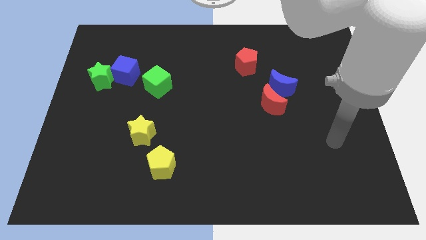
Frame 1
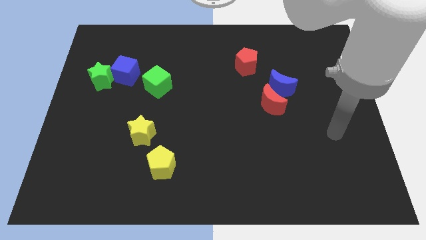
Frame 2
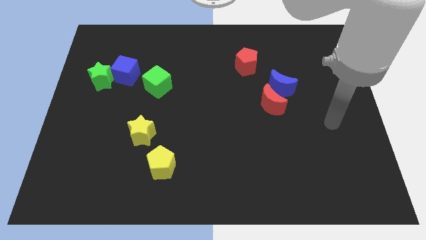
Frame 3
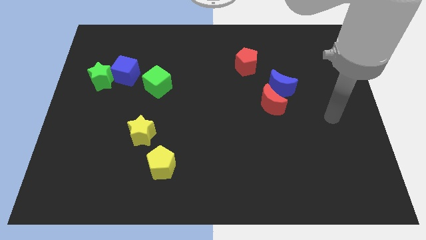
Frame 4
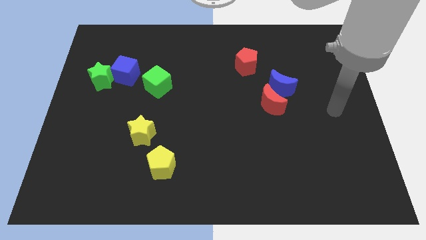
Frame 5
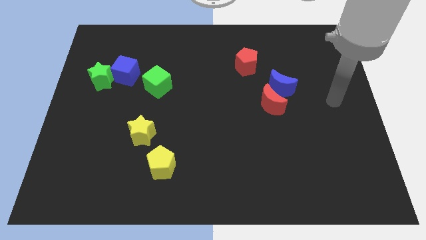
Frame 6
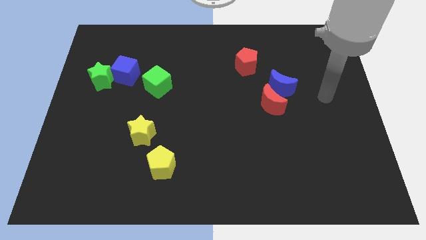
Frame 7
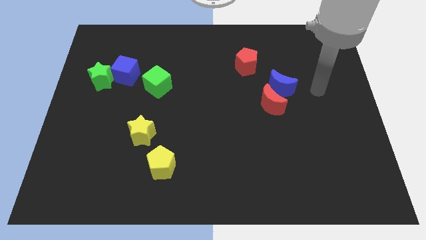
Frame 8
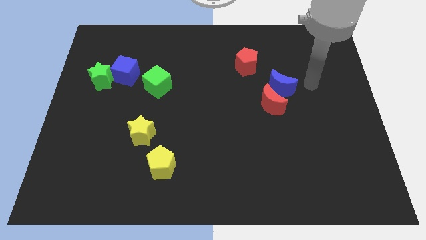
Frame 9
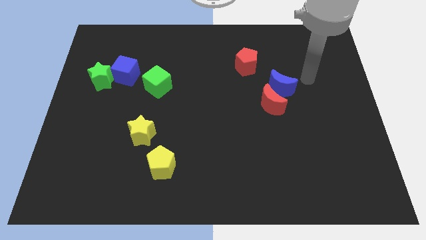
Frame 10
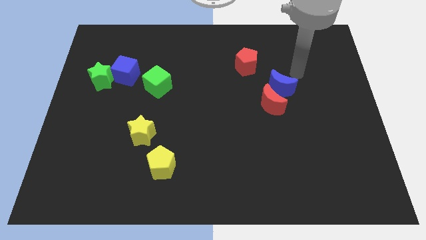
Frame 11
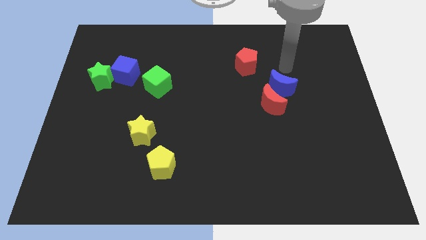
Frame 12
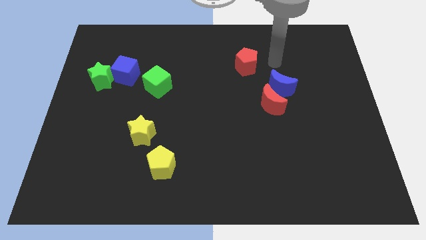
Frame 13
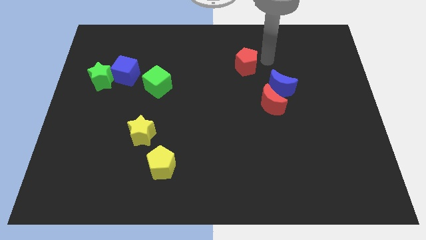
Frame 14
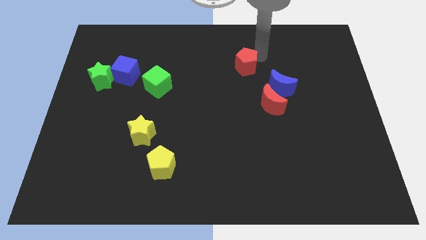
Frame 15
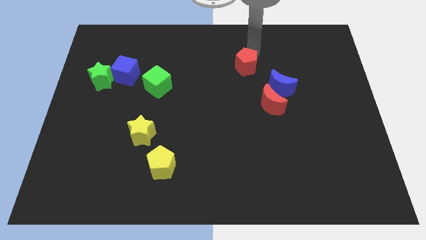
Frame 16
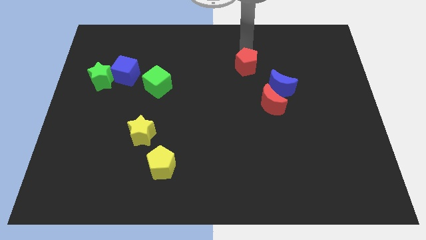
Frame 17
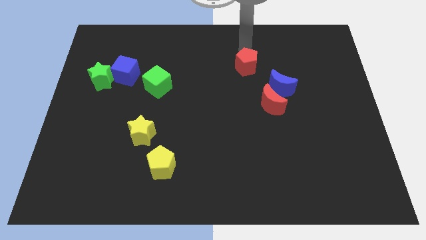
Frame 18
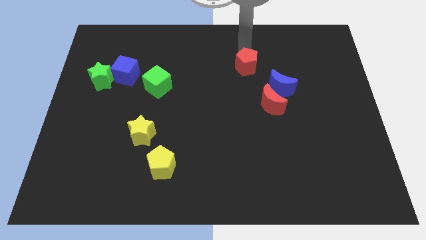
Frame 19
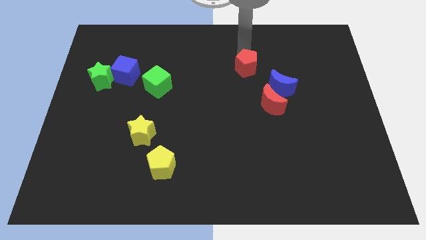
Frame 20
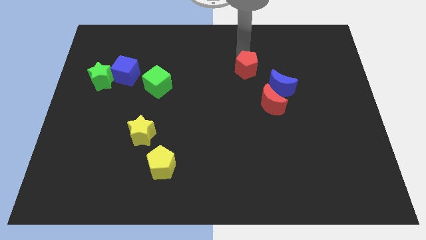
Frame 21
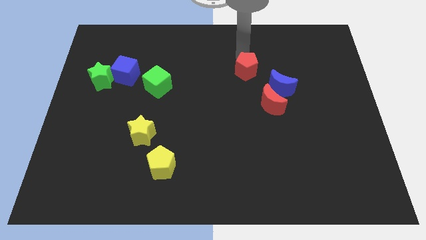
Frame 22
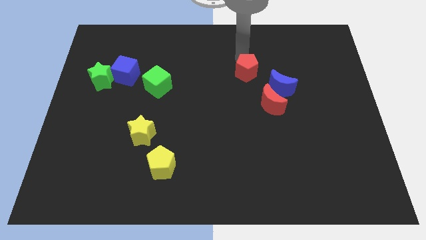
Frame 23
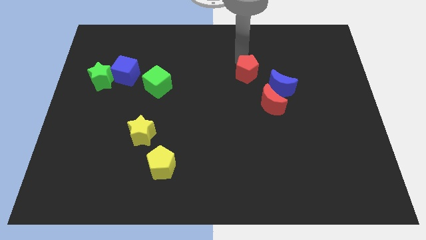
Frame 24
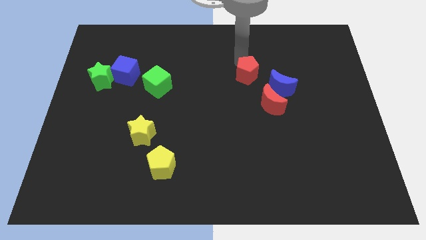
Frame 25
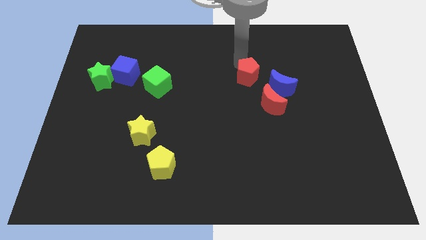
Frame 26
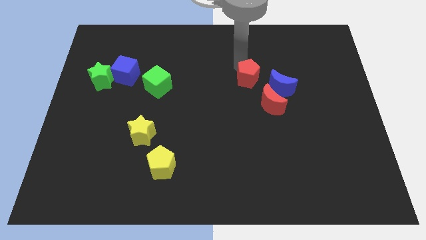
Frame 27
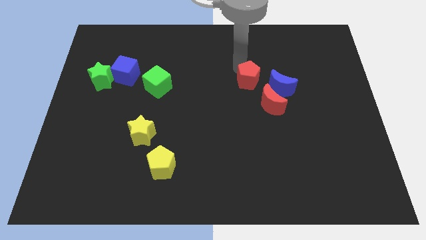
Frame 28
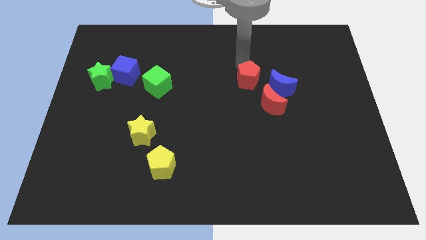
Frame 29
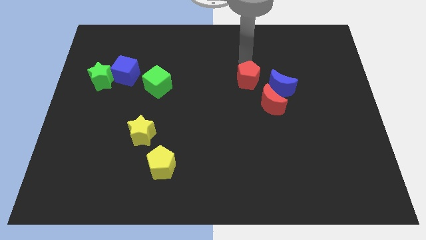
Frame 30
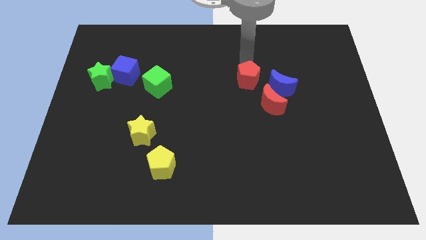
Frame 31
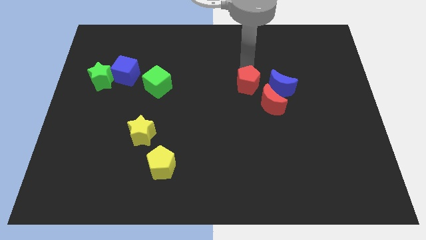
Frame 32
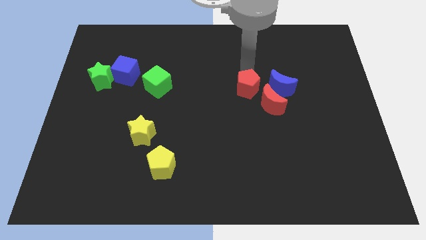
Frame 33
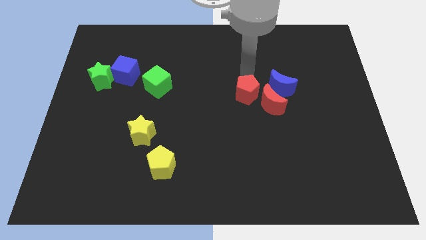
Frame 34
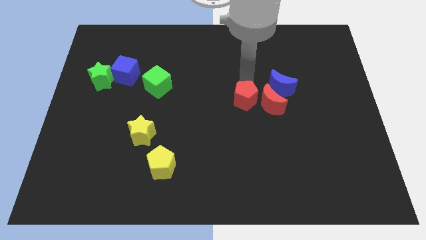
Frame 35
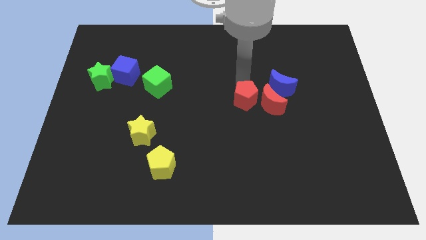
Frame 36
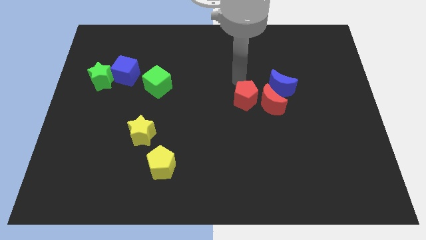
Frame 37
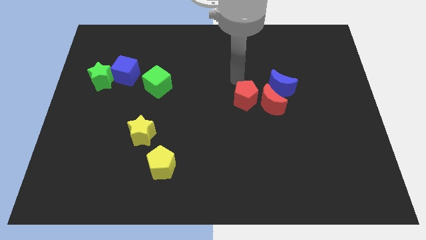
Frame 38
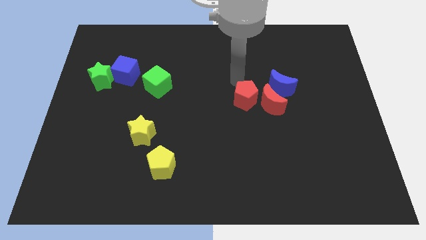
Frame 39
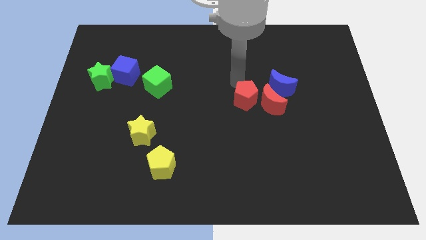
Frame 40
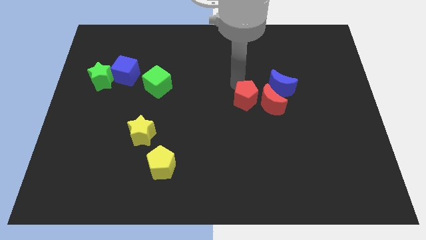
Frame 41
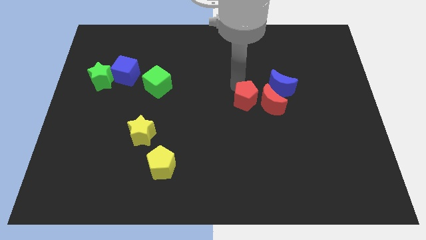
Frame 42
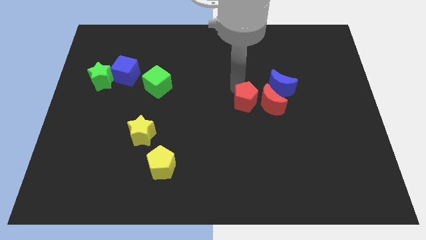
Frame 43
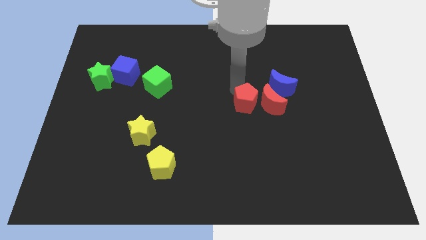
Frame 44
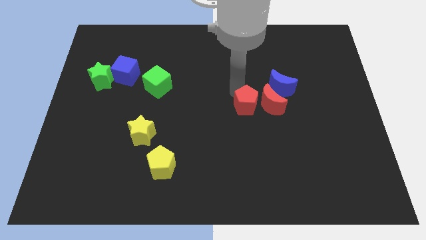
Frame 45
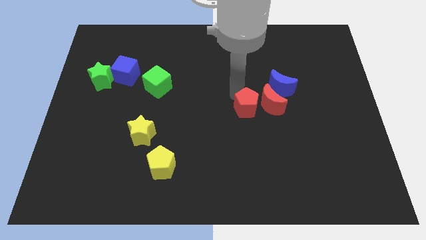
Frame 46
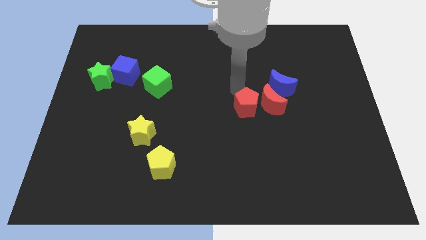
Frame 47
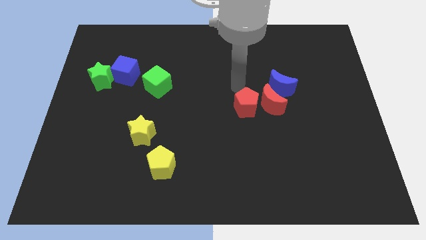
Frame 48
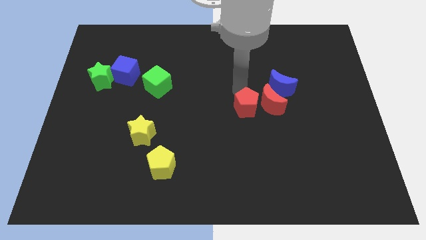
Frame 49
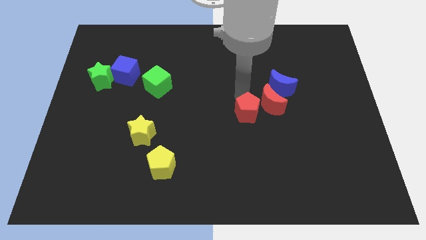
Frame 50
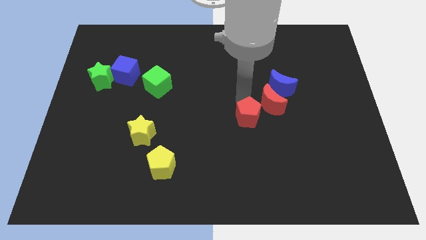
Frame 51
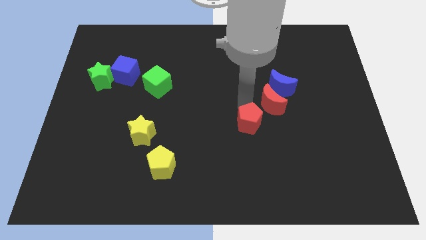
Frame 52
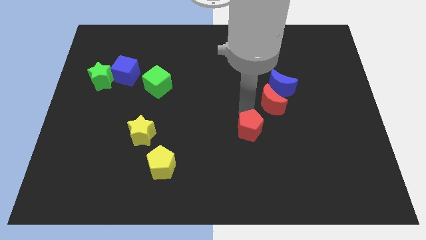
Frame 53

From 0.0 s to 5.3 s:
slide the red pentagon downwards

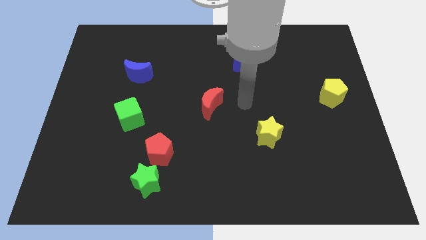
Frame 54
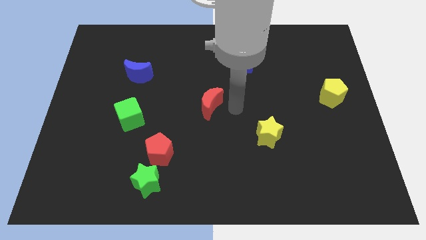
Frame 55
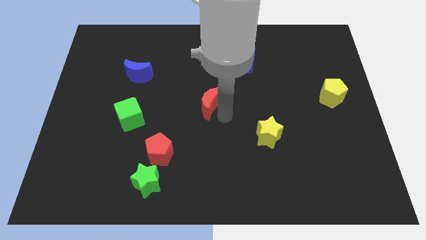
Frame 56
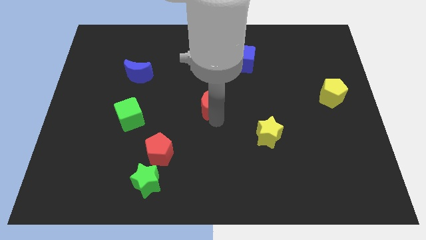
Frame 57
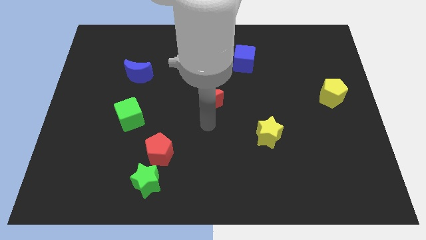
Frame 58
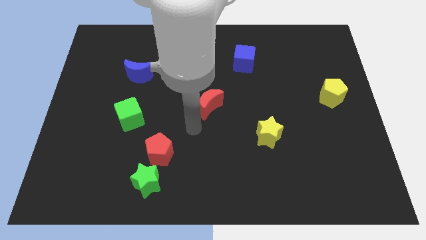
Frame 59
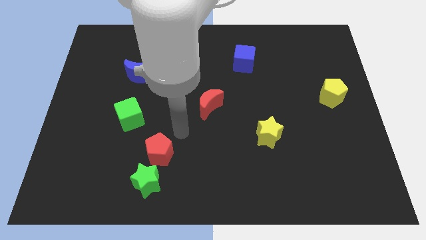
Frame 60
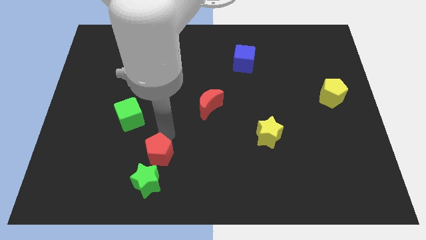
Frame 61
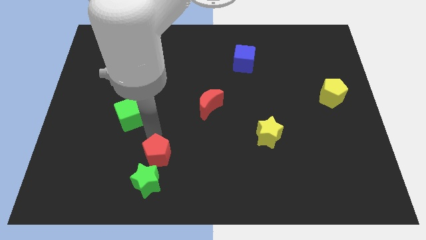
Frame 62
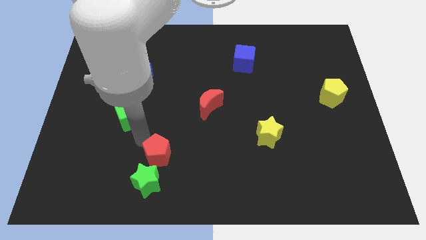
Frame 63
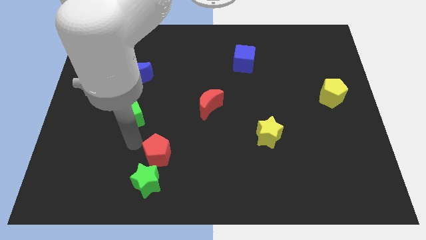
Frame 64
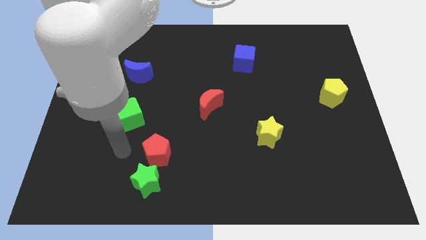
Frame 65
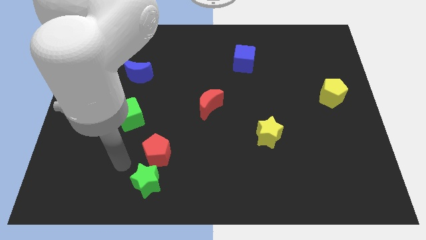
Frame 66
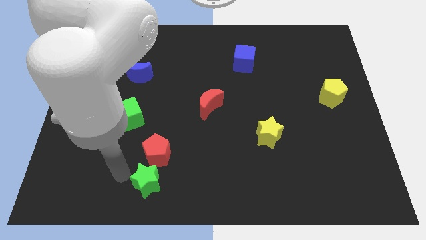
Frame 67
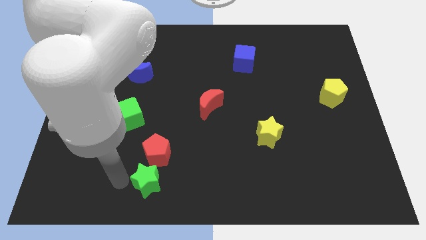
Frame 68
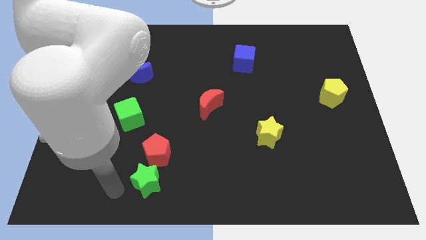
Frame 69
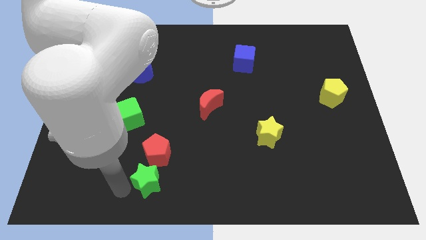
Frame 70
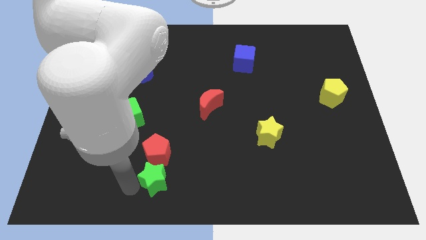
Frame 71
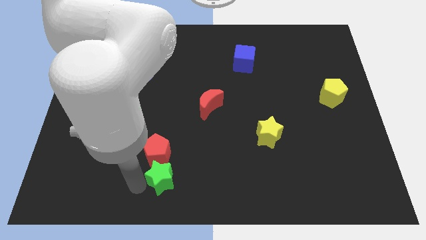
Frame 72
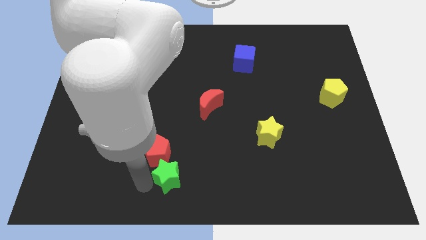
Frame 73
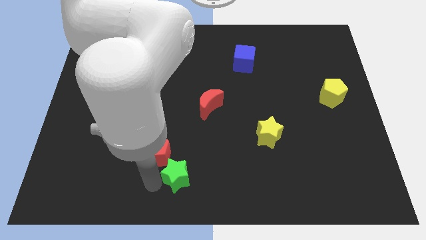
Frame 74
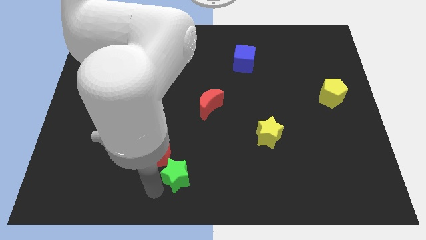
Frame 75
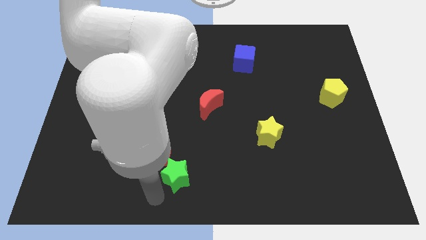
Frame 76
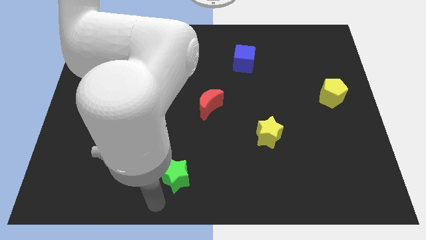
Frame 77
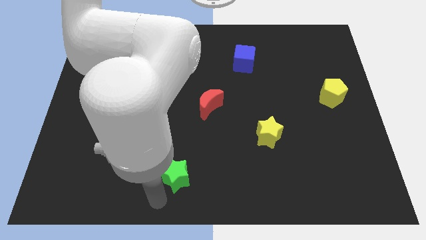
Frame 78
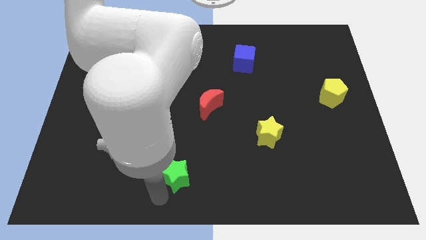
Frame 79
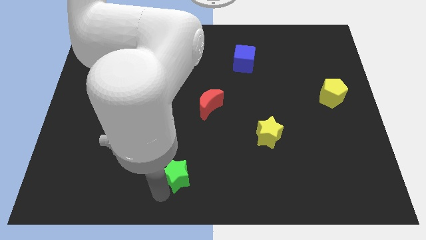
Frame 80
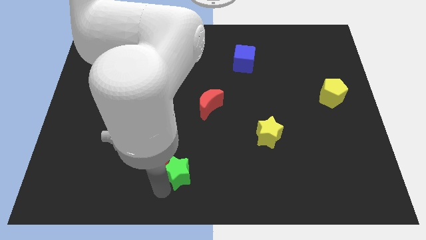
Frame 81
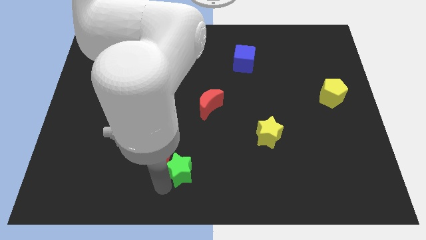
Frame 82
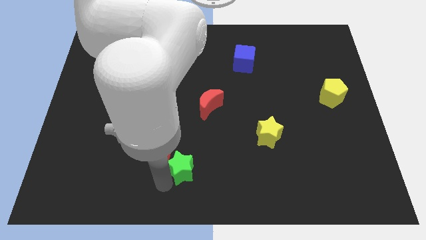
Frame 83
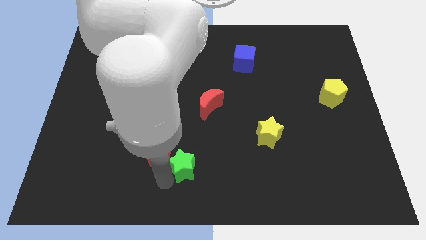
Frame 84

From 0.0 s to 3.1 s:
push the green star slightly diagonally upwards and right
